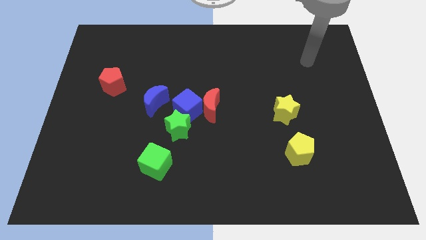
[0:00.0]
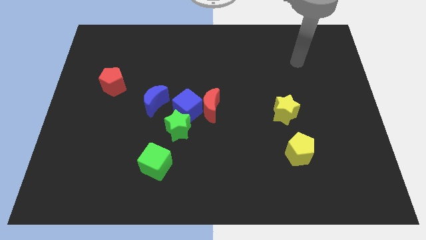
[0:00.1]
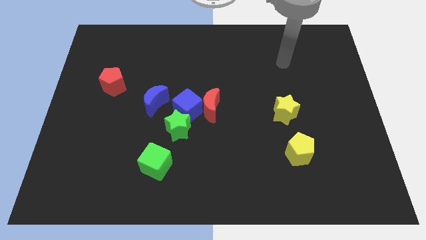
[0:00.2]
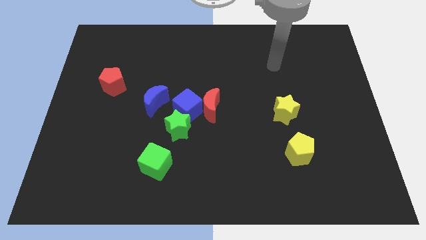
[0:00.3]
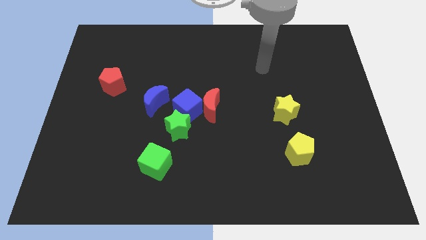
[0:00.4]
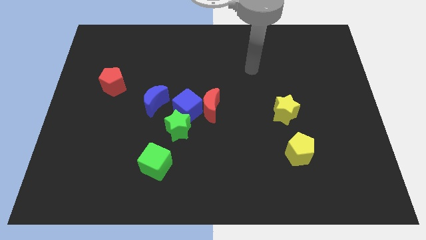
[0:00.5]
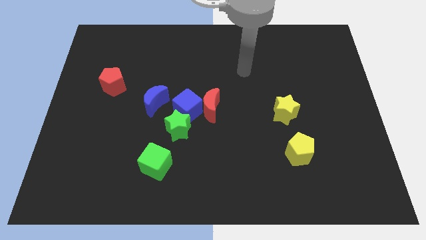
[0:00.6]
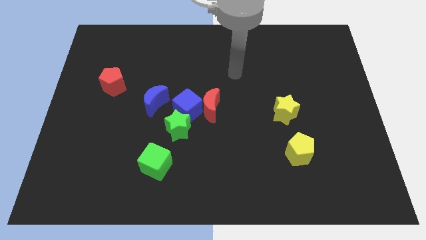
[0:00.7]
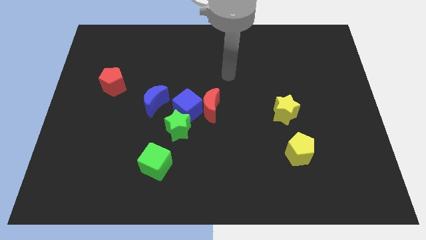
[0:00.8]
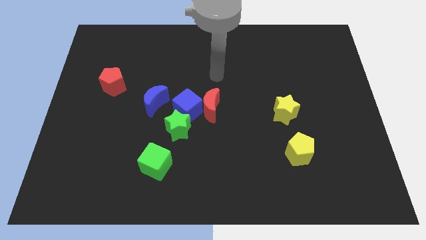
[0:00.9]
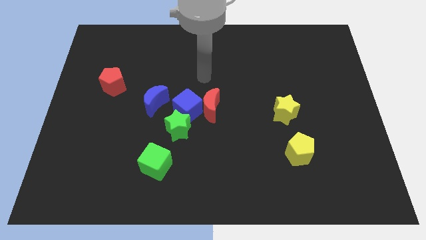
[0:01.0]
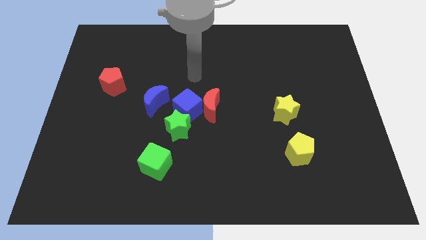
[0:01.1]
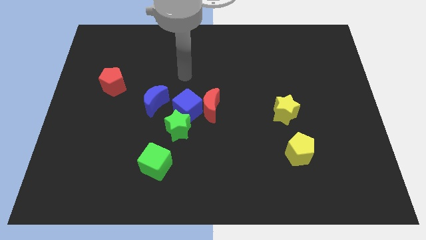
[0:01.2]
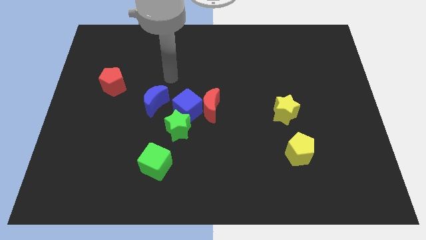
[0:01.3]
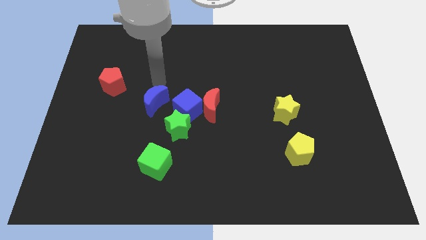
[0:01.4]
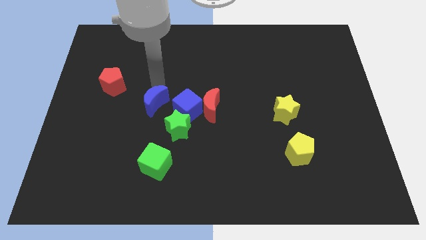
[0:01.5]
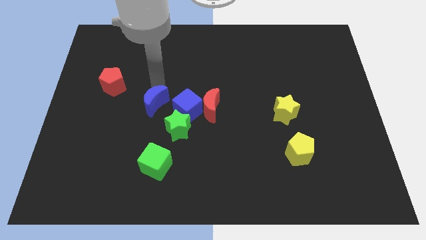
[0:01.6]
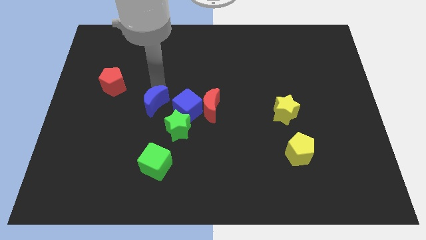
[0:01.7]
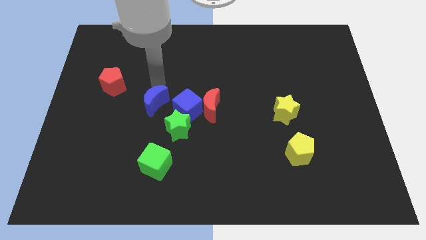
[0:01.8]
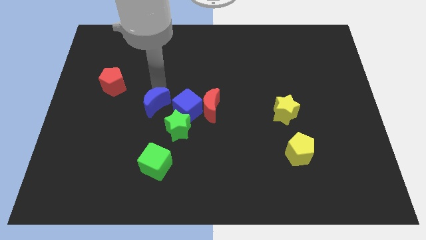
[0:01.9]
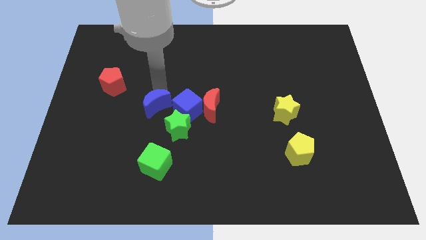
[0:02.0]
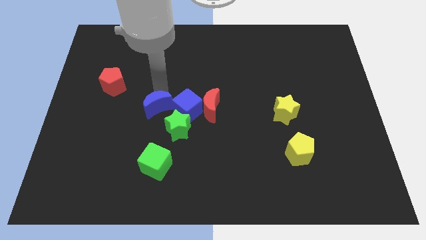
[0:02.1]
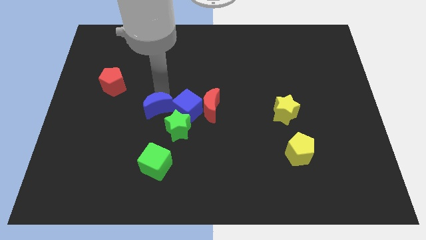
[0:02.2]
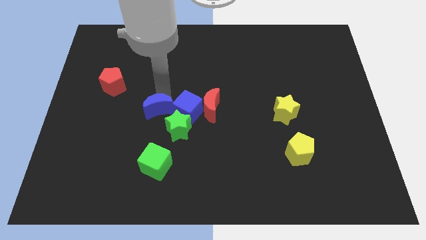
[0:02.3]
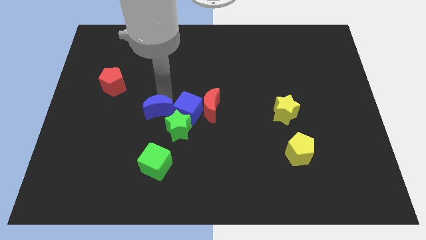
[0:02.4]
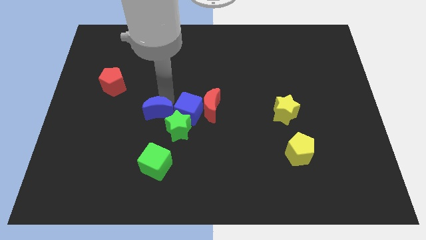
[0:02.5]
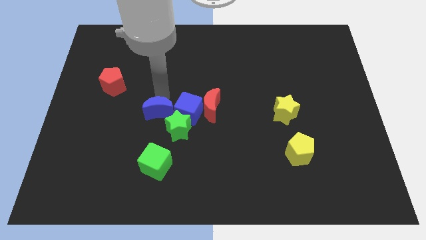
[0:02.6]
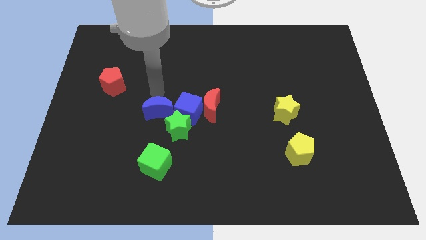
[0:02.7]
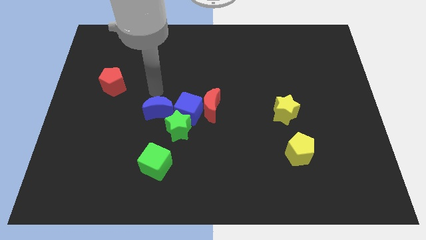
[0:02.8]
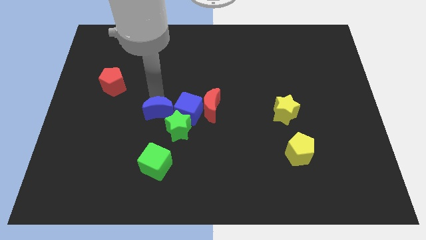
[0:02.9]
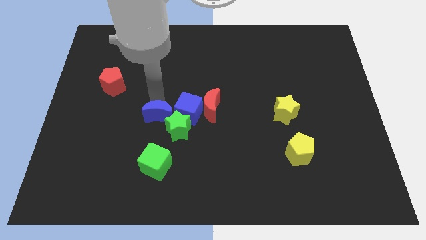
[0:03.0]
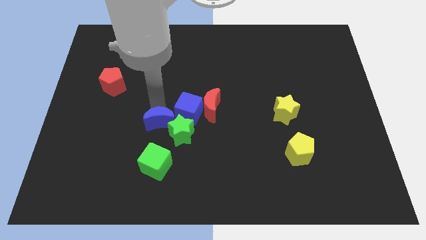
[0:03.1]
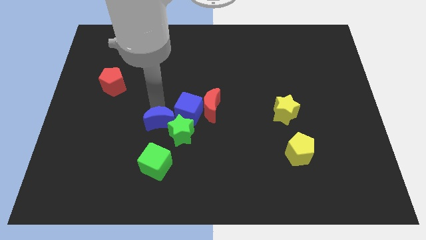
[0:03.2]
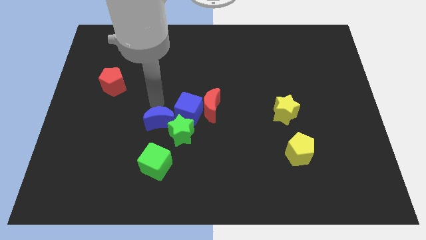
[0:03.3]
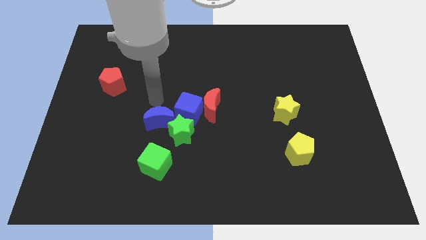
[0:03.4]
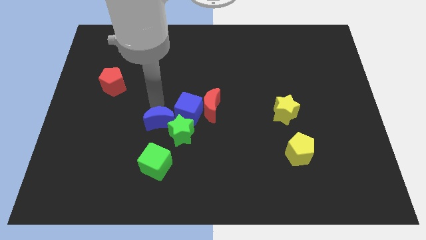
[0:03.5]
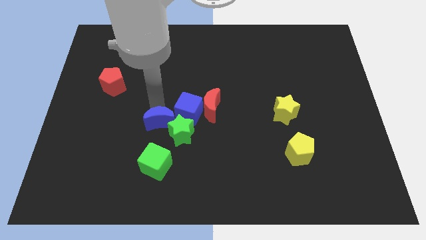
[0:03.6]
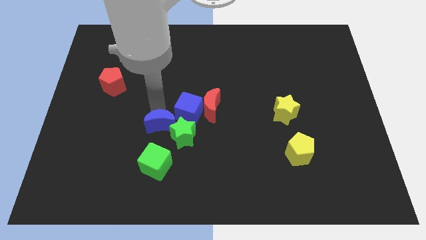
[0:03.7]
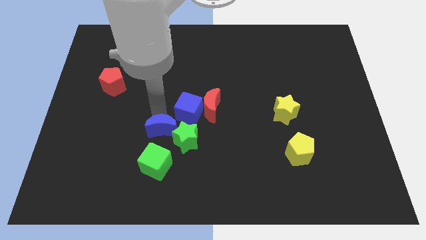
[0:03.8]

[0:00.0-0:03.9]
move the blue moon a little down and then right

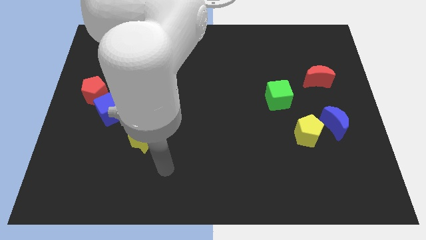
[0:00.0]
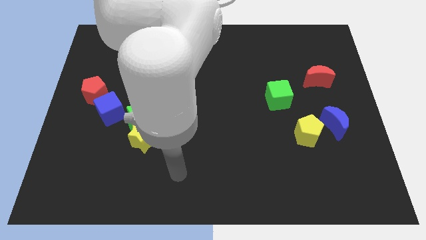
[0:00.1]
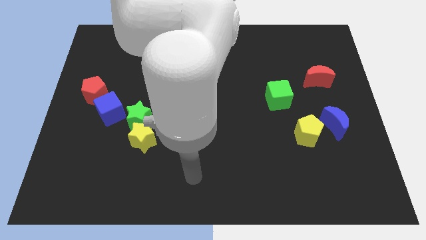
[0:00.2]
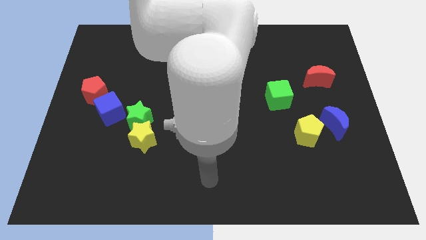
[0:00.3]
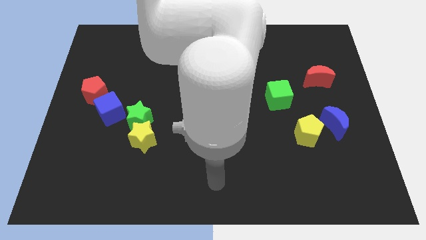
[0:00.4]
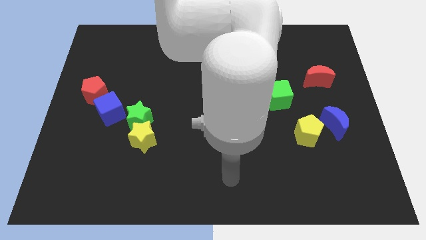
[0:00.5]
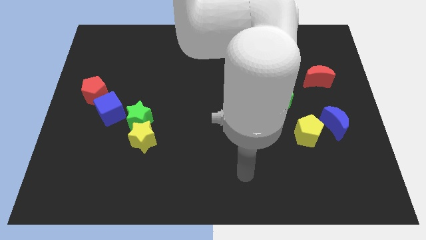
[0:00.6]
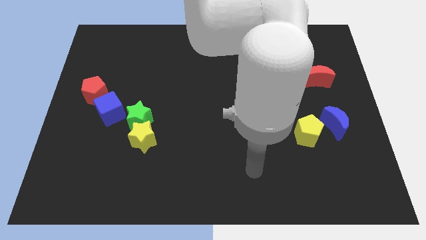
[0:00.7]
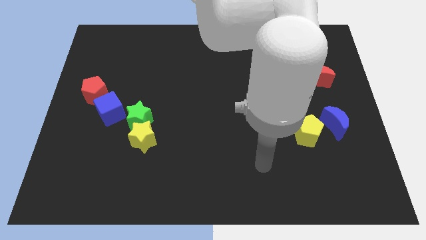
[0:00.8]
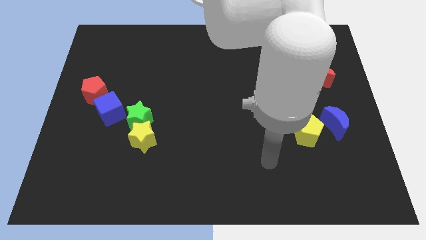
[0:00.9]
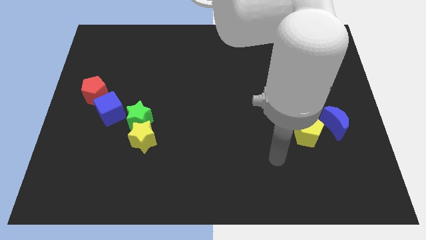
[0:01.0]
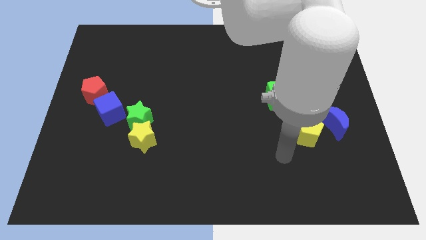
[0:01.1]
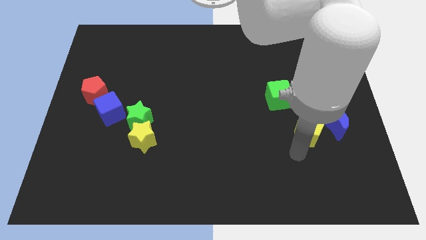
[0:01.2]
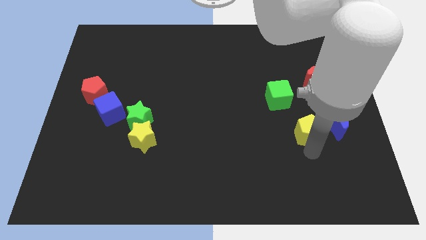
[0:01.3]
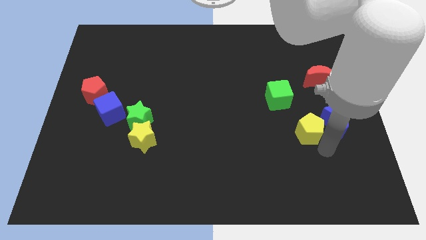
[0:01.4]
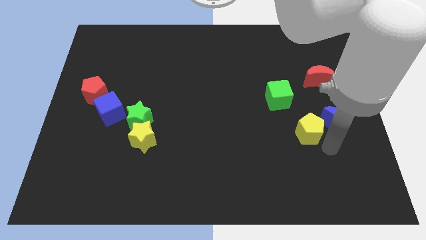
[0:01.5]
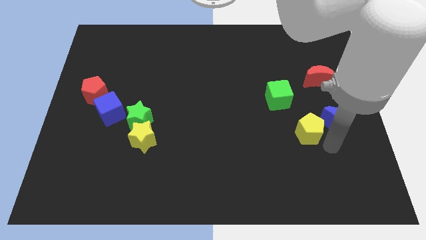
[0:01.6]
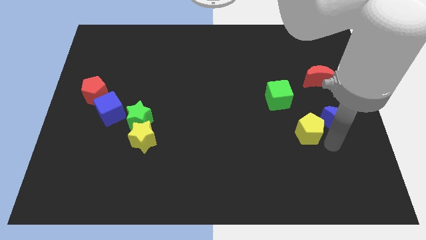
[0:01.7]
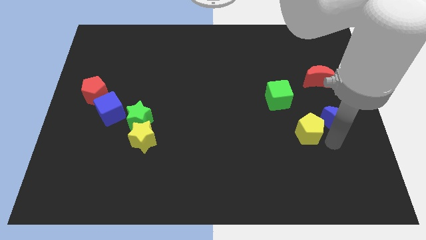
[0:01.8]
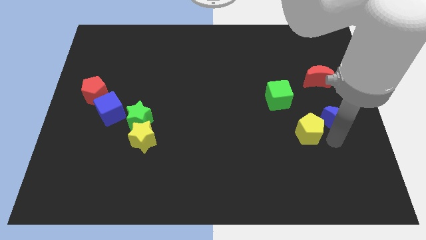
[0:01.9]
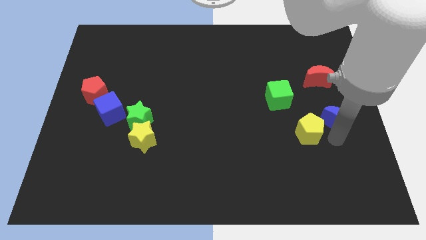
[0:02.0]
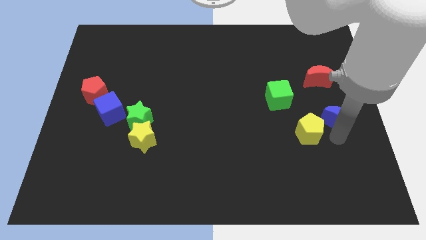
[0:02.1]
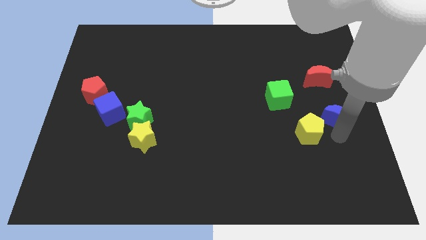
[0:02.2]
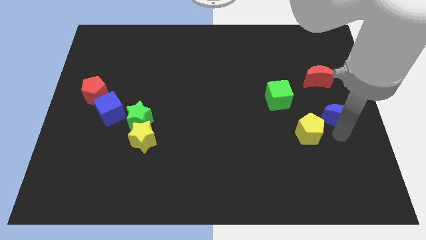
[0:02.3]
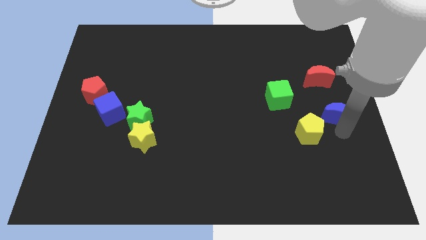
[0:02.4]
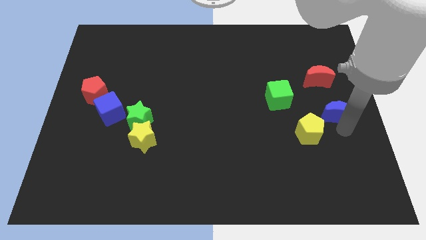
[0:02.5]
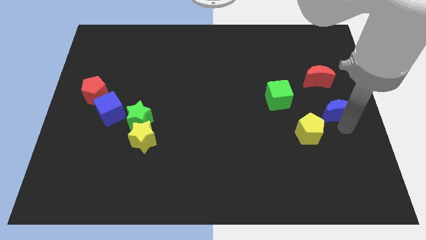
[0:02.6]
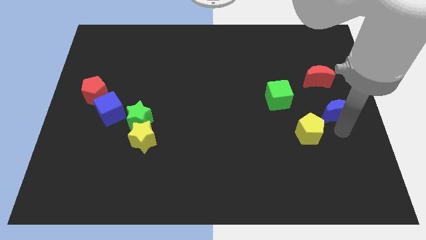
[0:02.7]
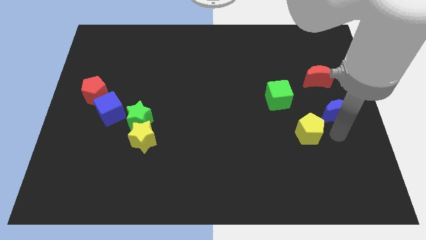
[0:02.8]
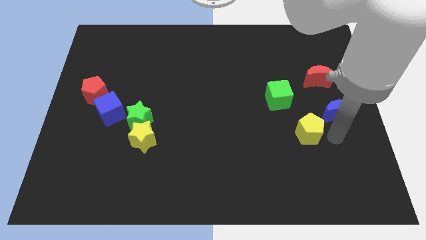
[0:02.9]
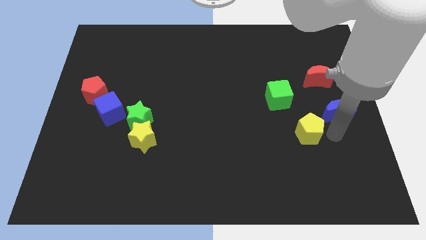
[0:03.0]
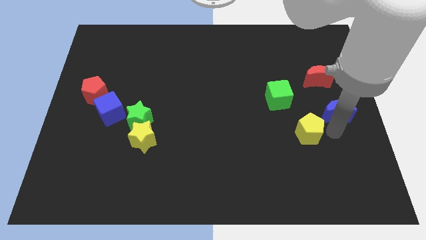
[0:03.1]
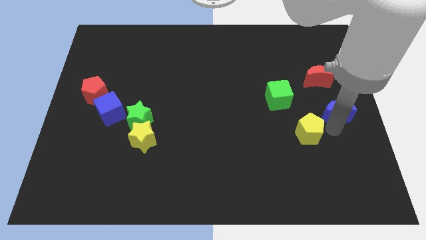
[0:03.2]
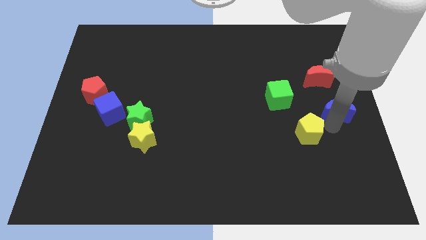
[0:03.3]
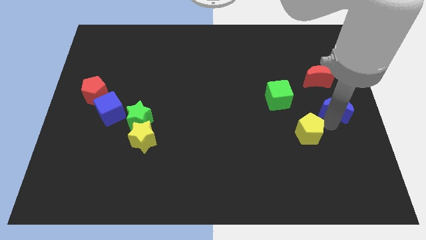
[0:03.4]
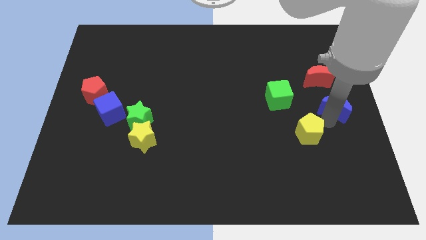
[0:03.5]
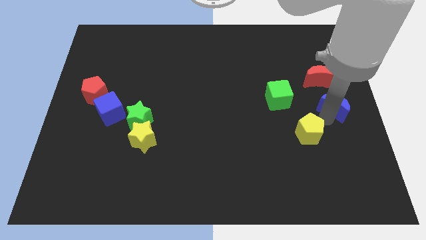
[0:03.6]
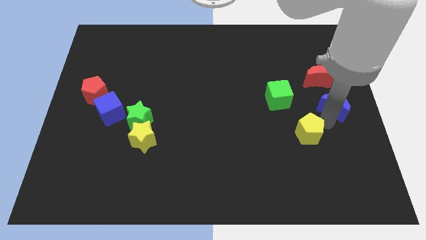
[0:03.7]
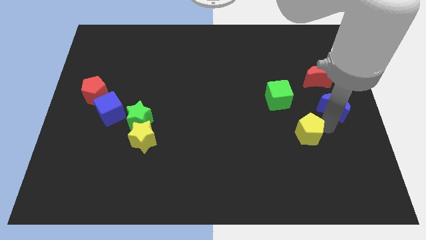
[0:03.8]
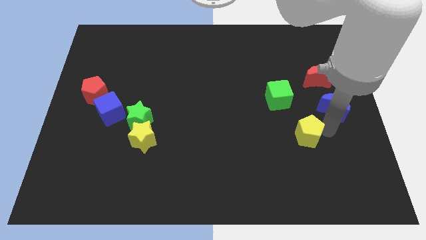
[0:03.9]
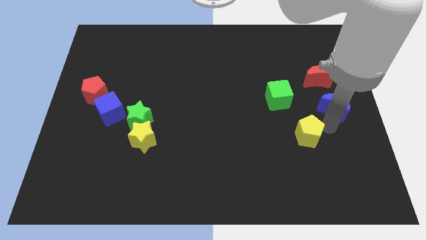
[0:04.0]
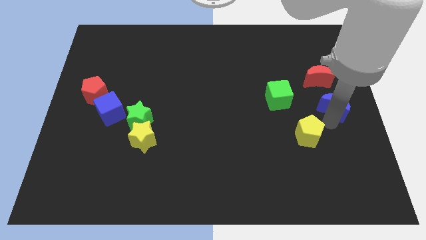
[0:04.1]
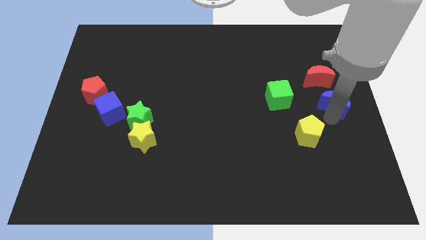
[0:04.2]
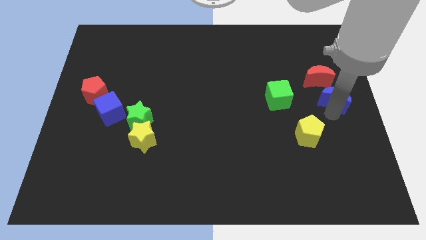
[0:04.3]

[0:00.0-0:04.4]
slightly slide the blue moon up
